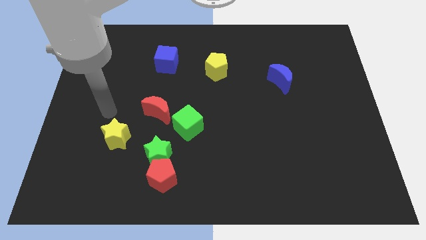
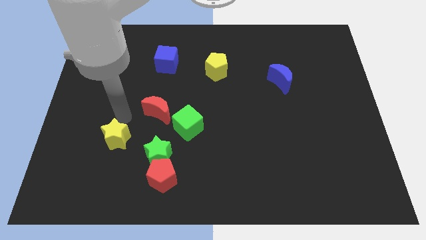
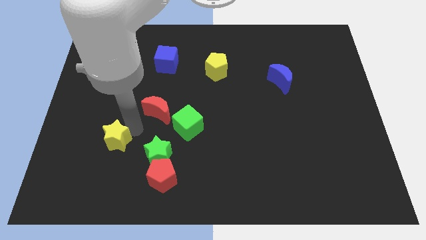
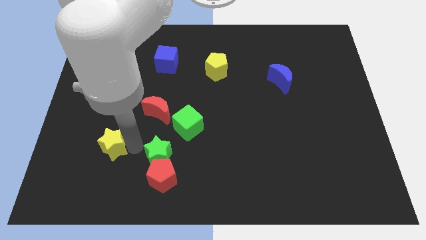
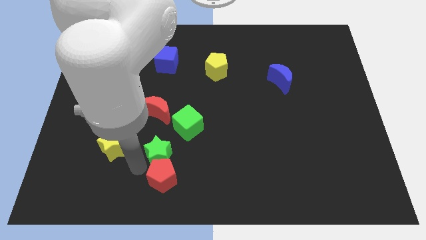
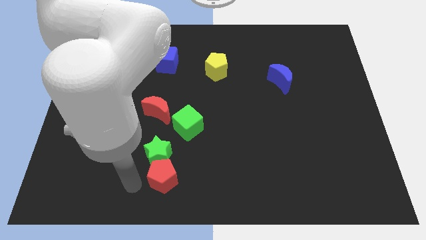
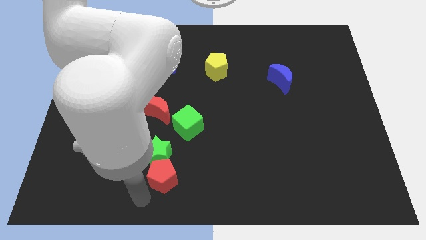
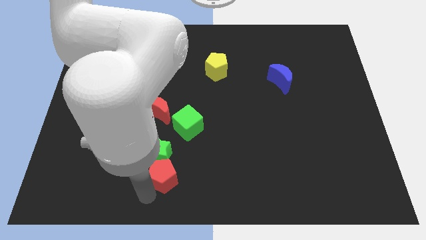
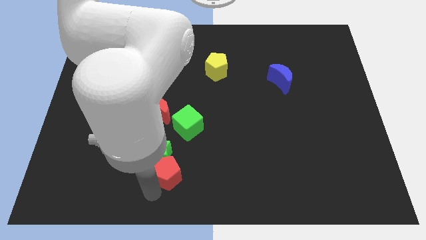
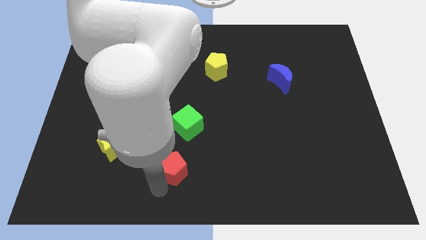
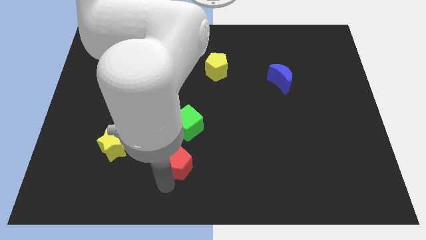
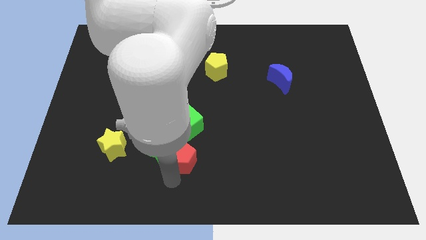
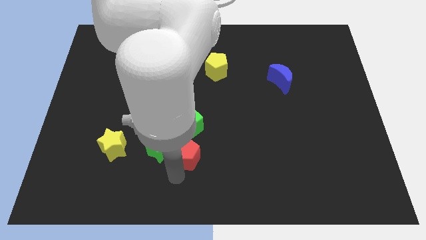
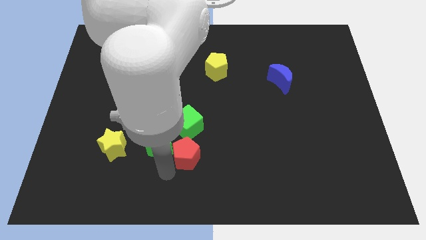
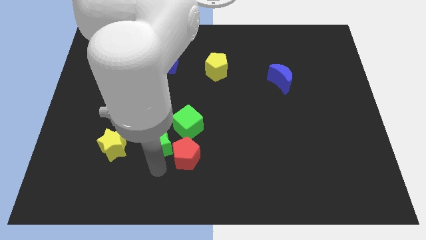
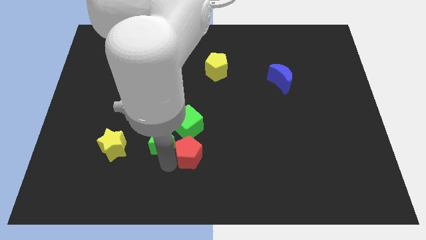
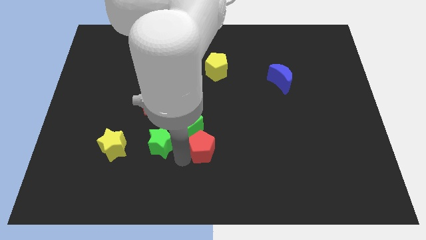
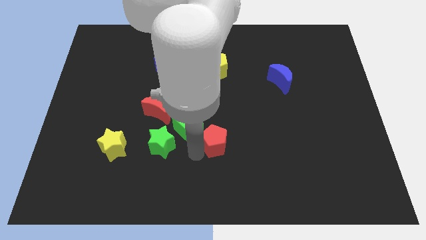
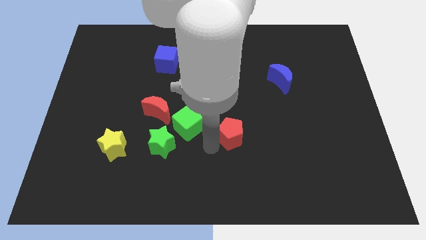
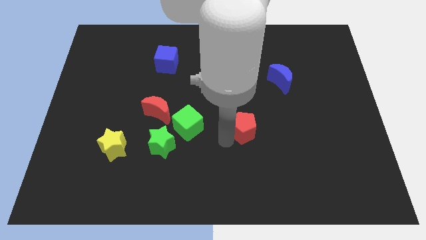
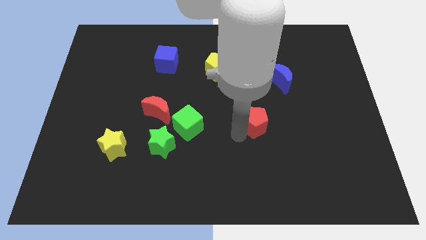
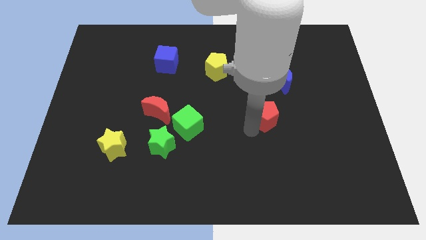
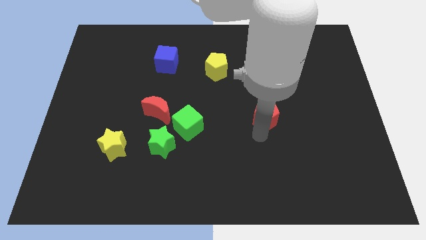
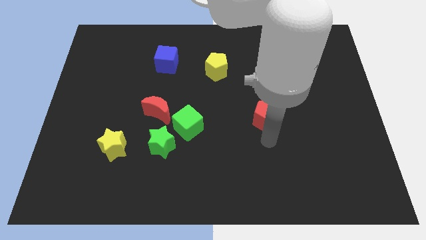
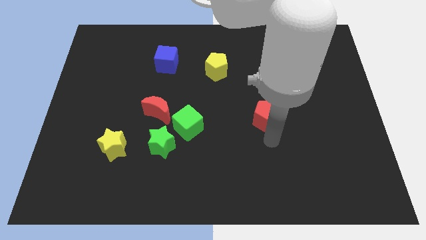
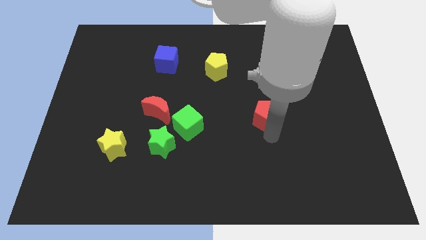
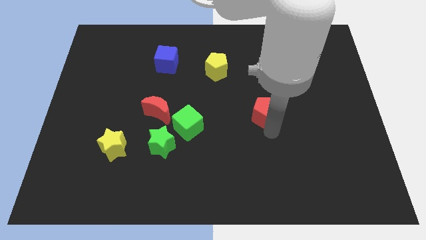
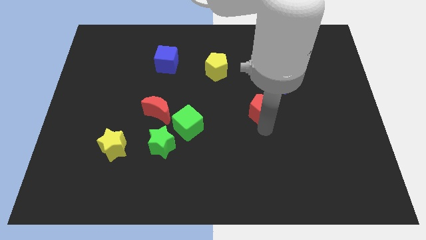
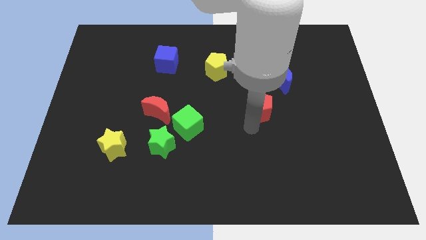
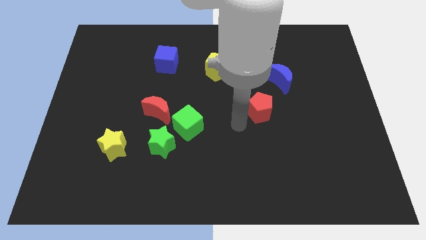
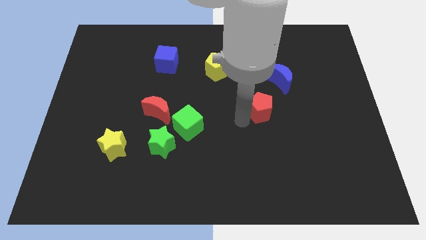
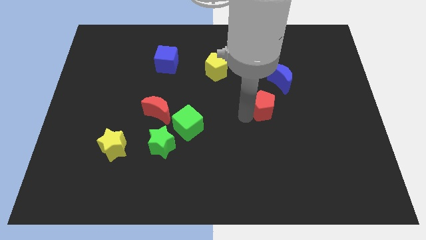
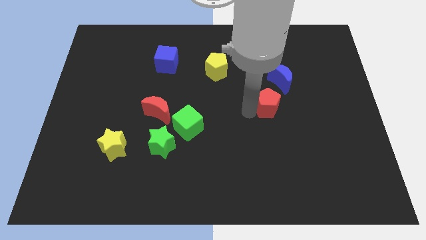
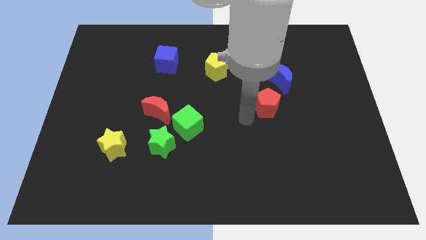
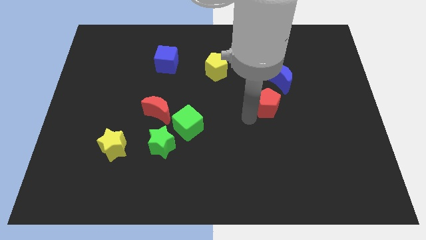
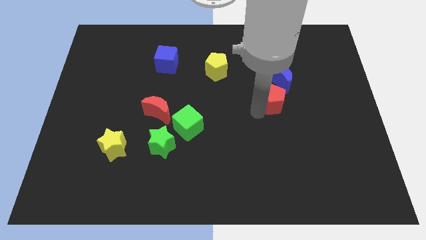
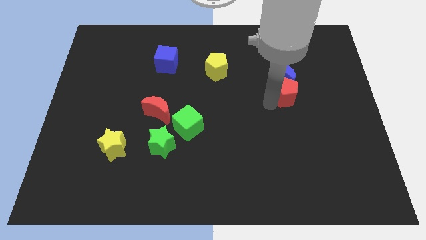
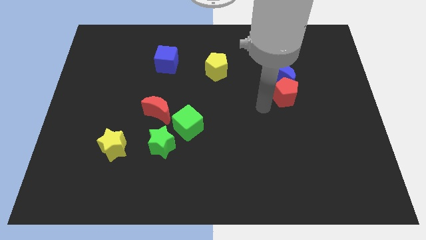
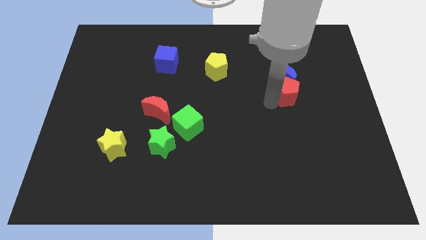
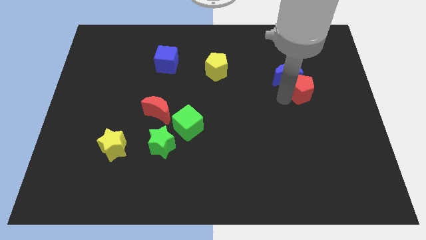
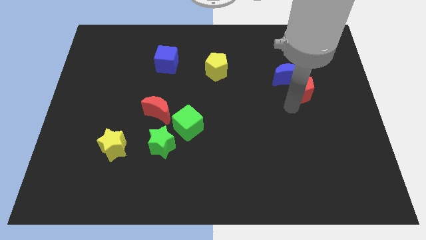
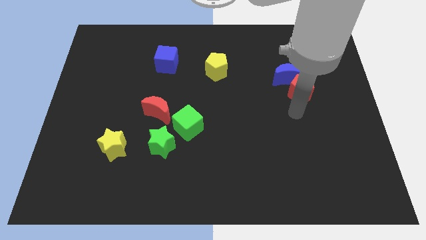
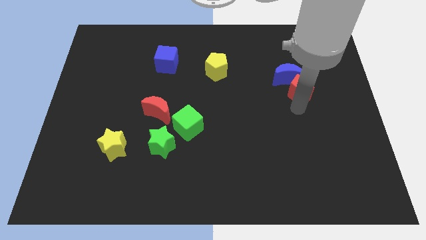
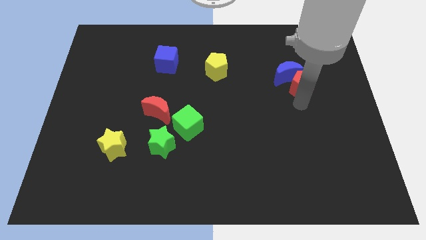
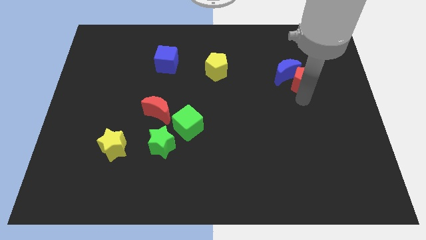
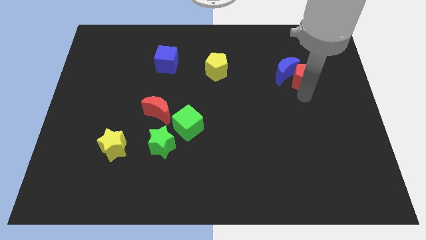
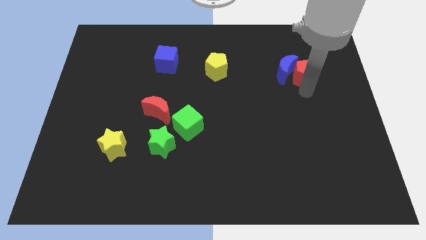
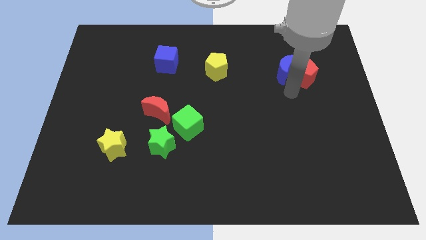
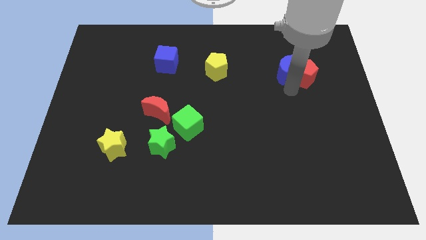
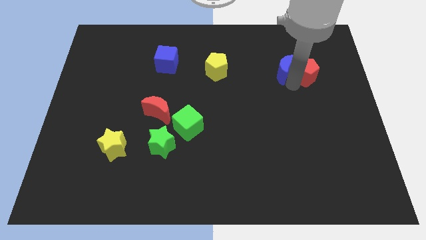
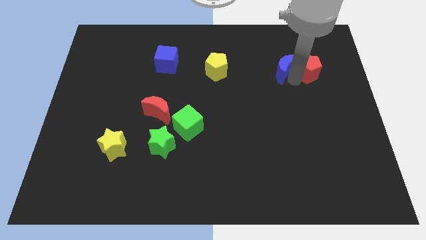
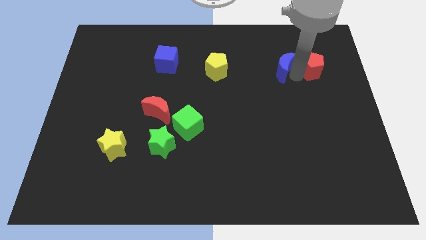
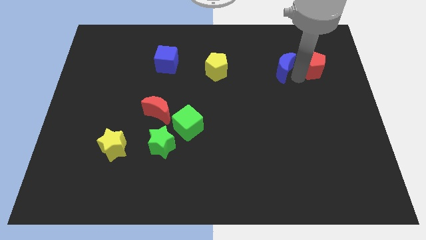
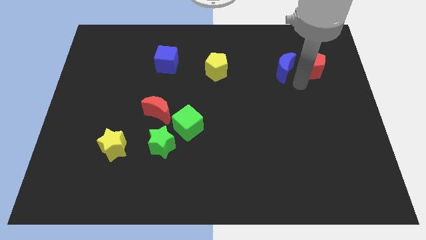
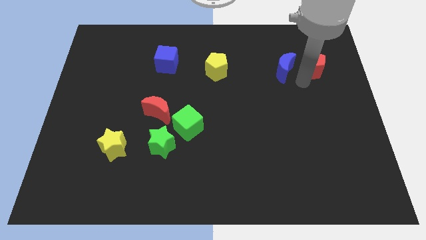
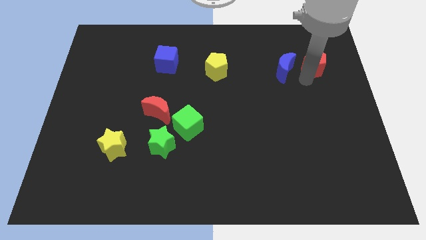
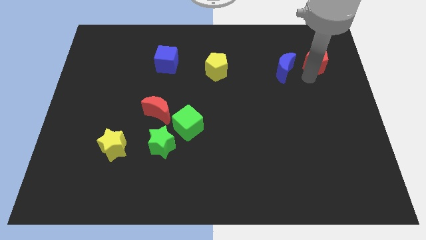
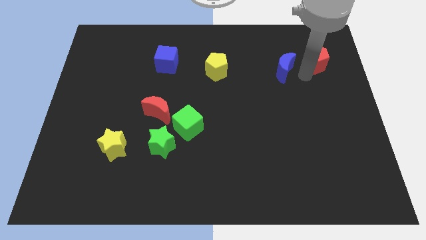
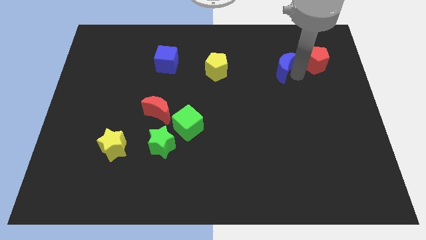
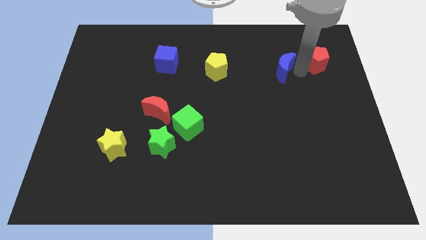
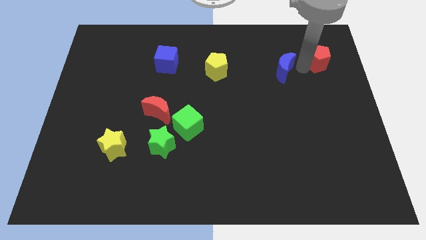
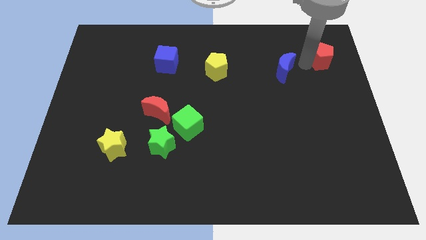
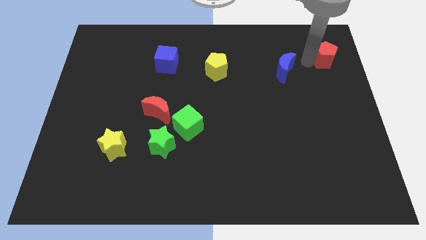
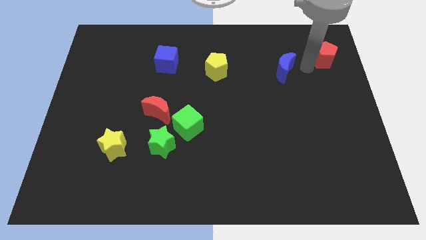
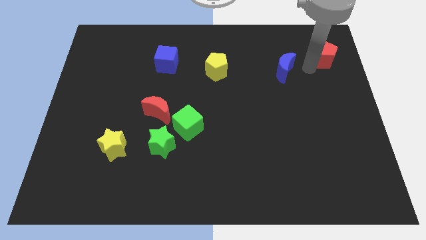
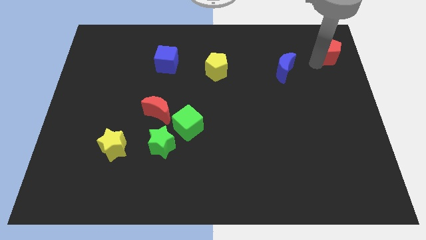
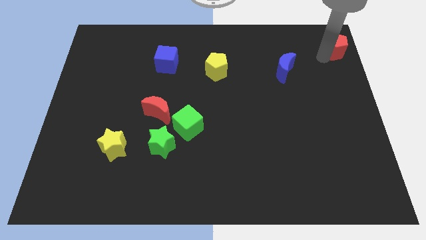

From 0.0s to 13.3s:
put the red pentagon to the top right of the board

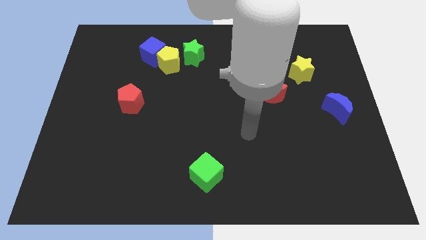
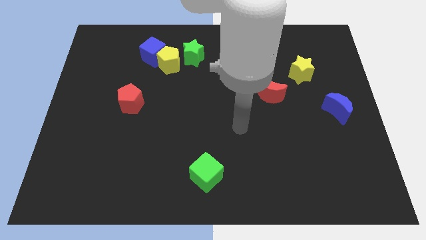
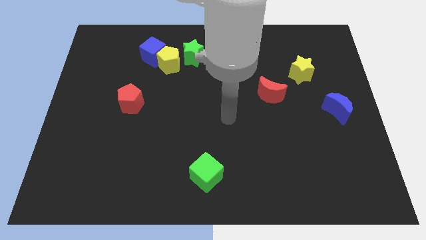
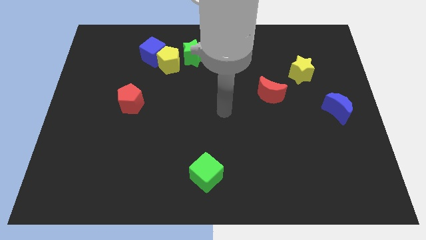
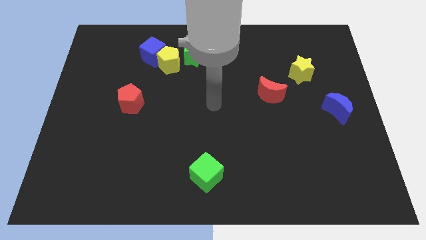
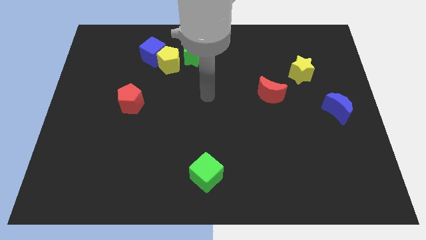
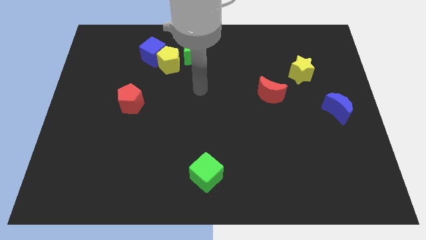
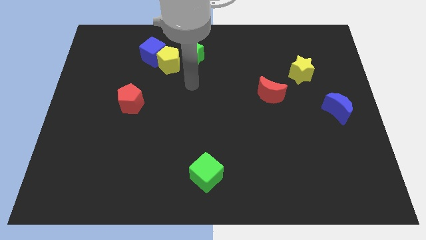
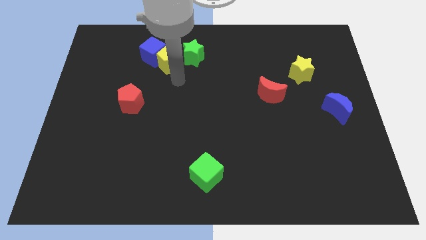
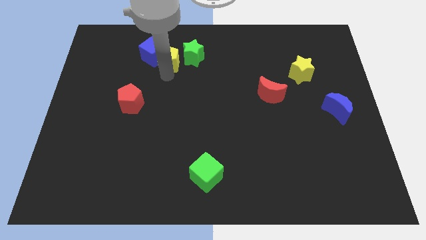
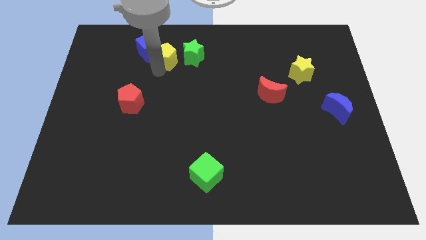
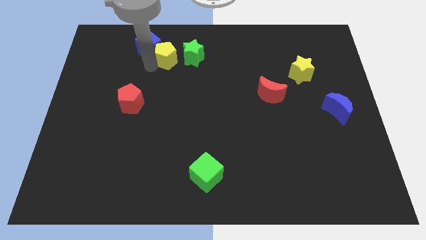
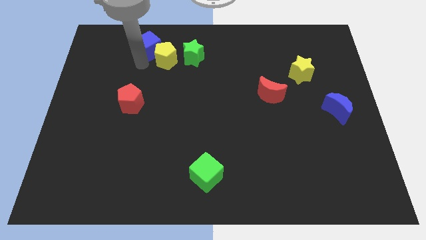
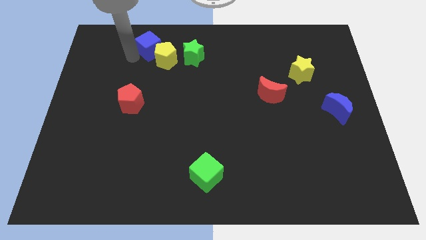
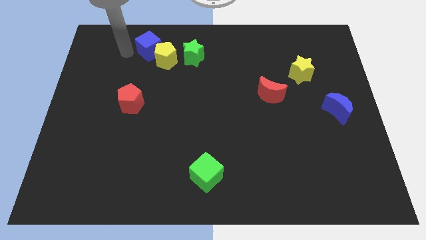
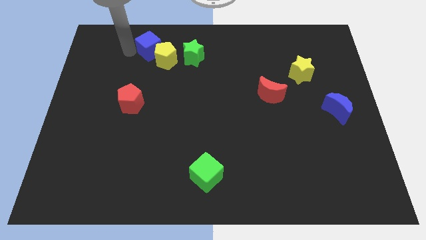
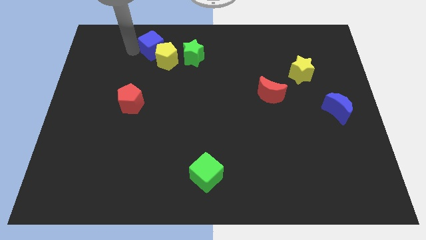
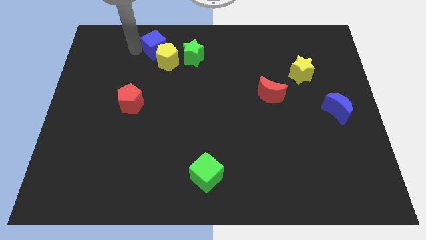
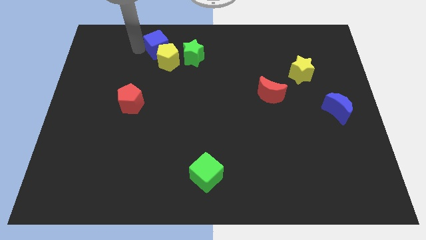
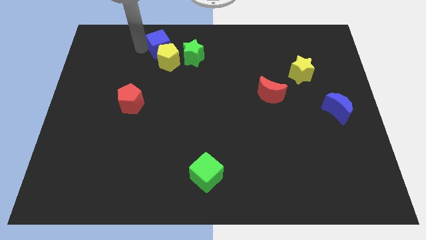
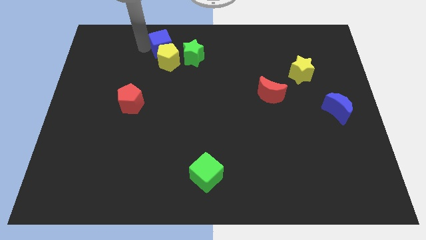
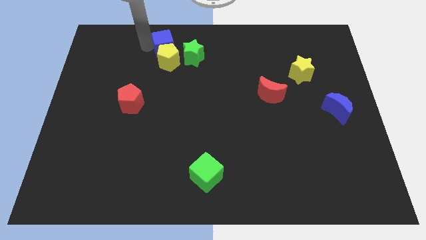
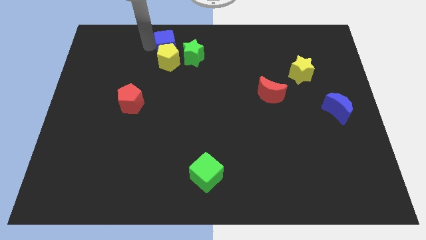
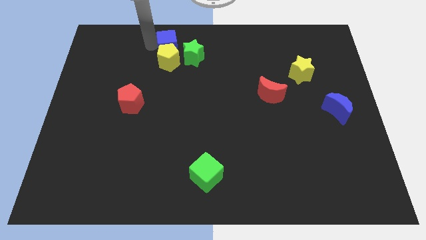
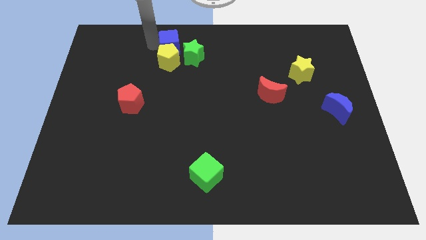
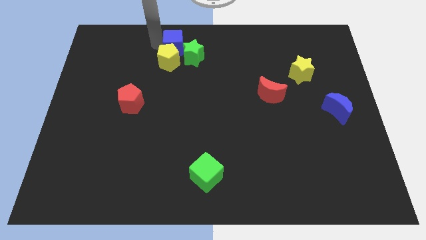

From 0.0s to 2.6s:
put the blue cube to the top side
